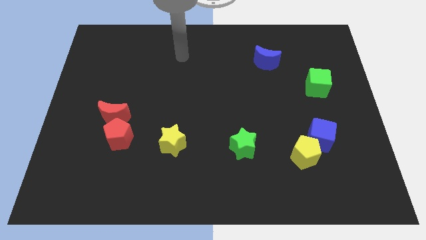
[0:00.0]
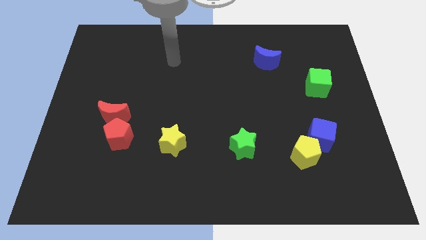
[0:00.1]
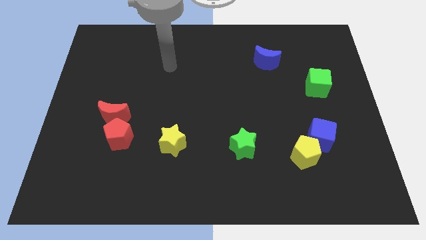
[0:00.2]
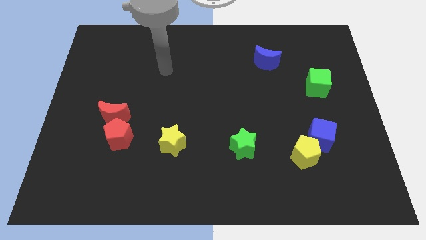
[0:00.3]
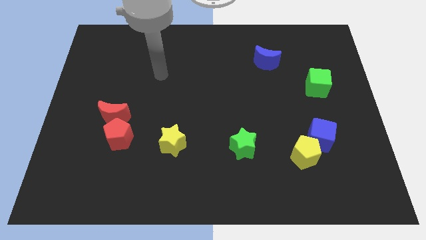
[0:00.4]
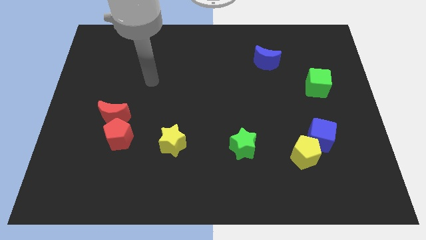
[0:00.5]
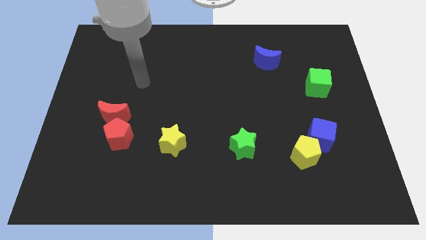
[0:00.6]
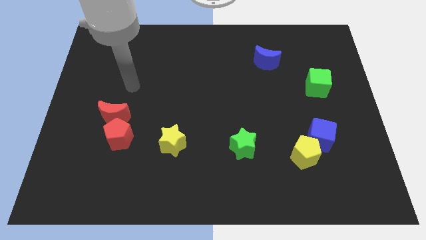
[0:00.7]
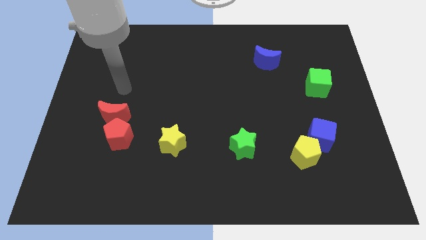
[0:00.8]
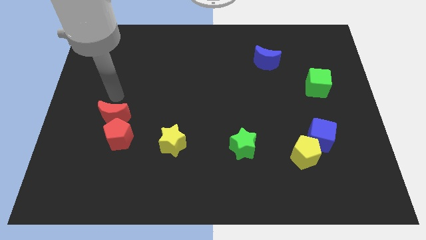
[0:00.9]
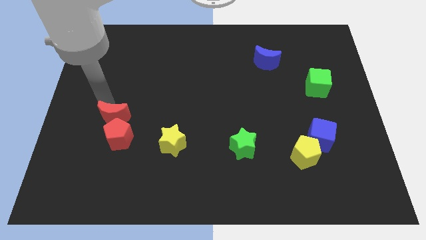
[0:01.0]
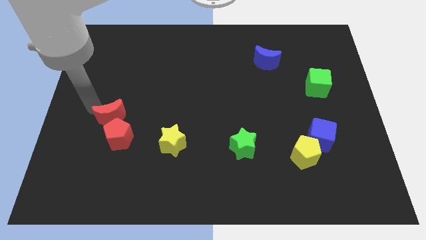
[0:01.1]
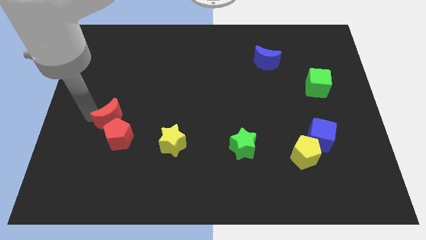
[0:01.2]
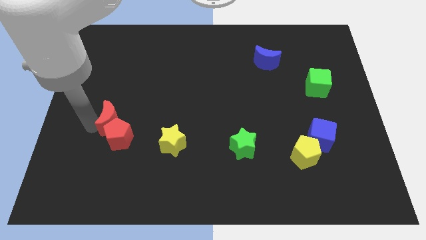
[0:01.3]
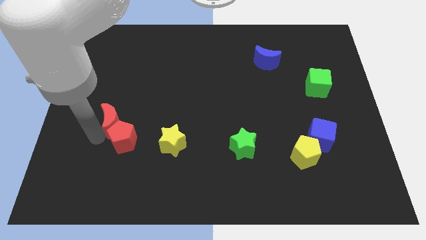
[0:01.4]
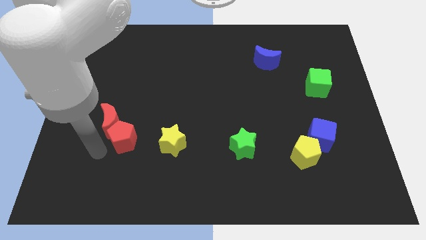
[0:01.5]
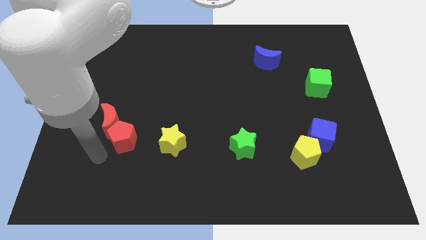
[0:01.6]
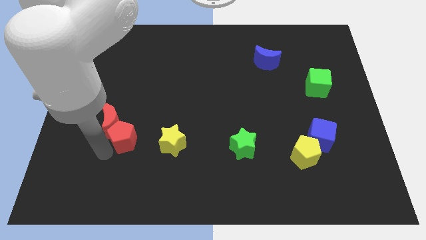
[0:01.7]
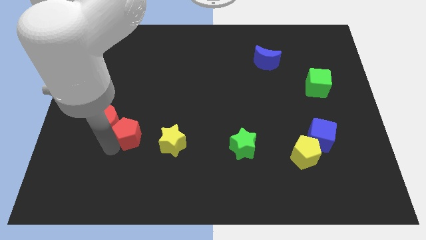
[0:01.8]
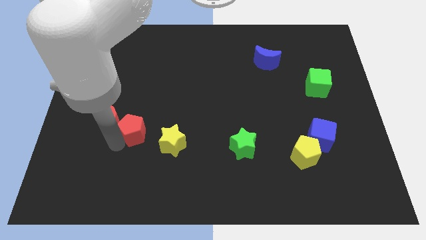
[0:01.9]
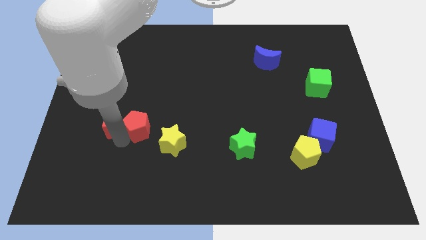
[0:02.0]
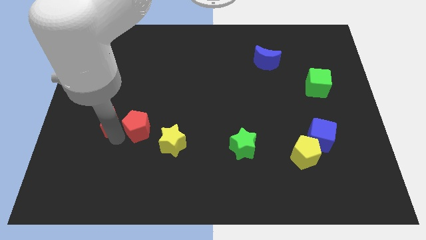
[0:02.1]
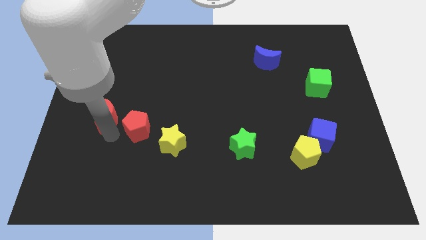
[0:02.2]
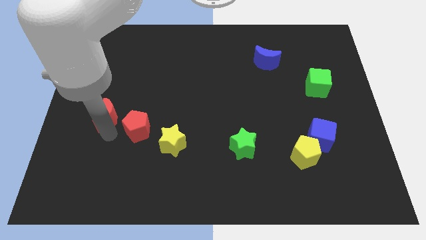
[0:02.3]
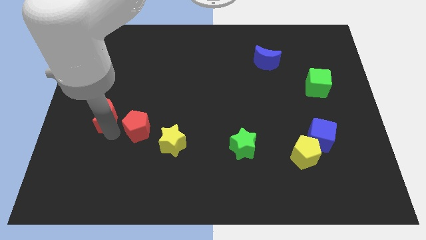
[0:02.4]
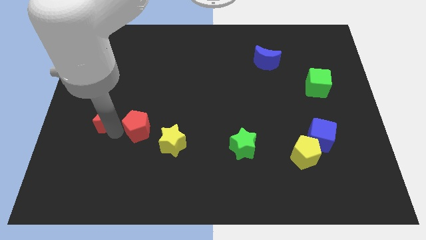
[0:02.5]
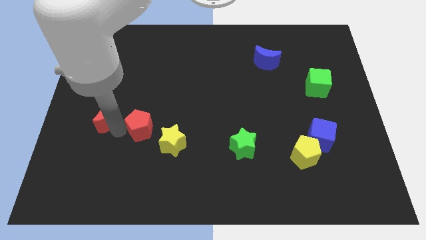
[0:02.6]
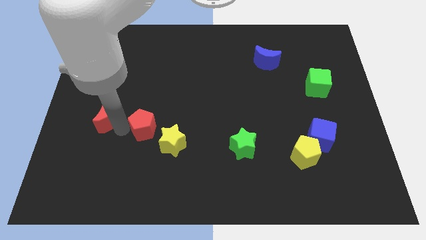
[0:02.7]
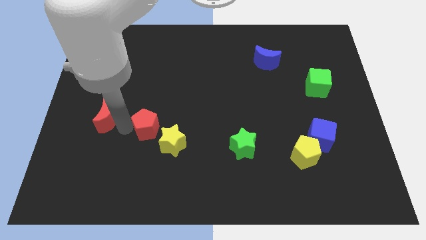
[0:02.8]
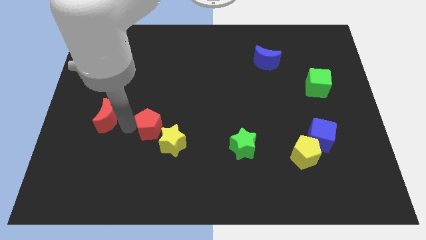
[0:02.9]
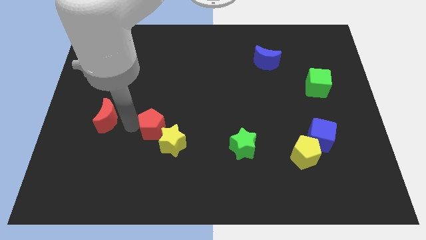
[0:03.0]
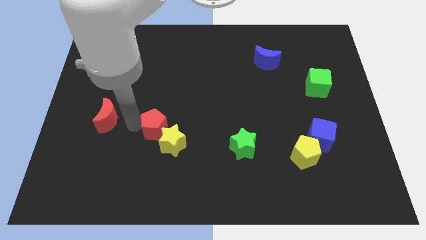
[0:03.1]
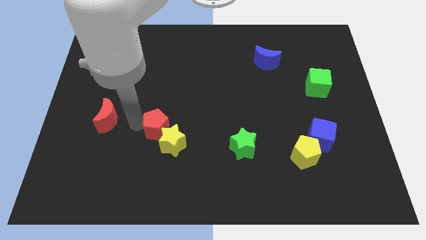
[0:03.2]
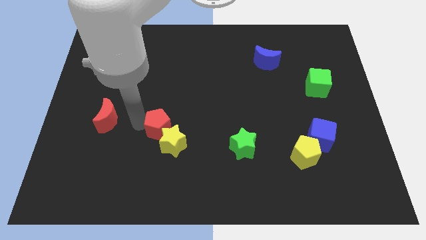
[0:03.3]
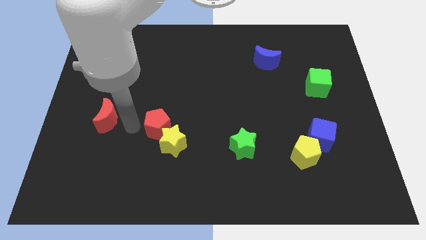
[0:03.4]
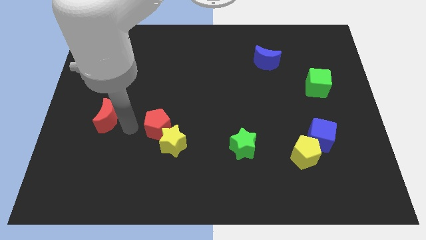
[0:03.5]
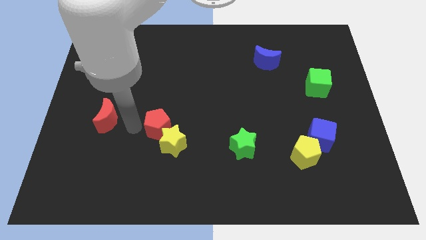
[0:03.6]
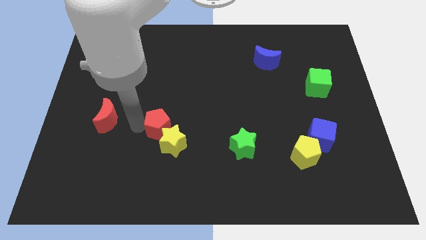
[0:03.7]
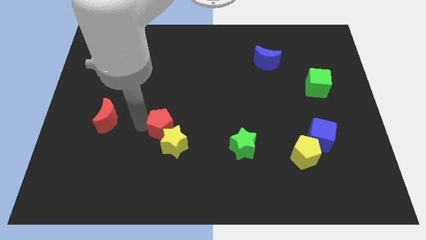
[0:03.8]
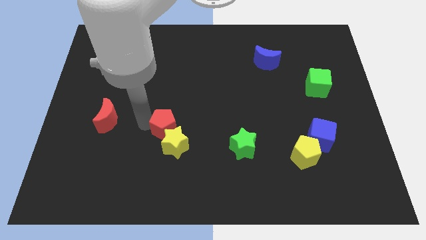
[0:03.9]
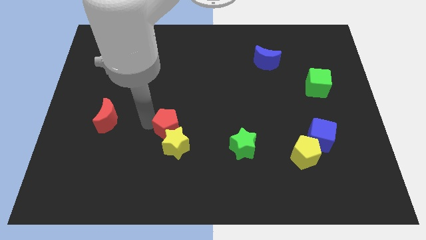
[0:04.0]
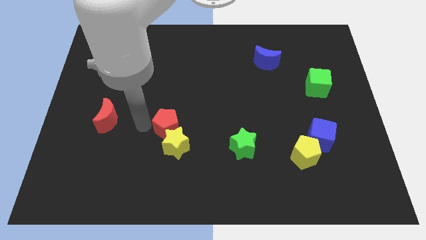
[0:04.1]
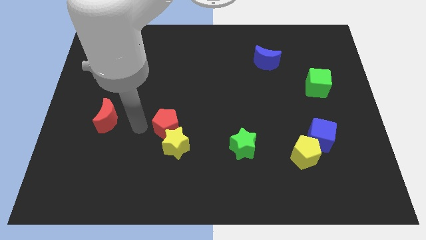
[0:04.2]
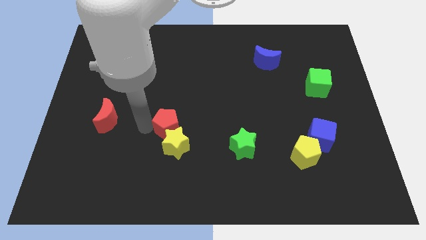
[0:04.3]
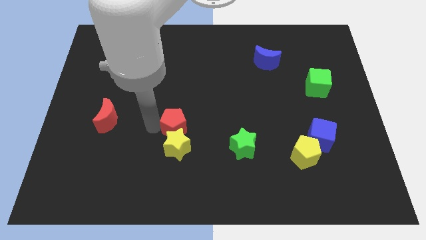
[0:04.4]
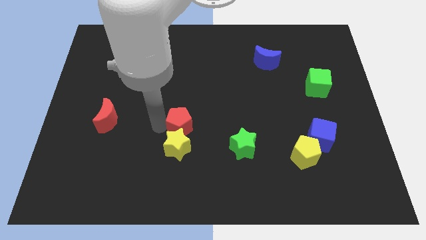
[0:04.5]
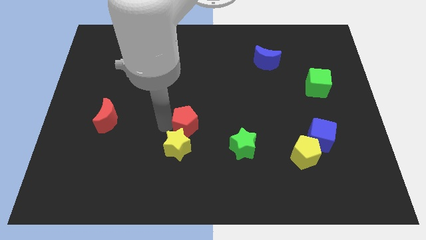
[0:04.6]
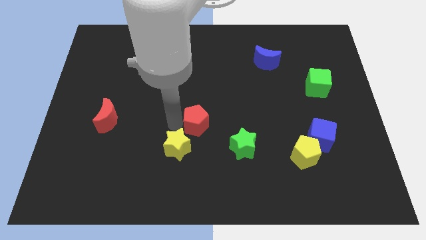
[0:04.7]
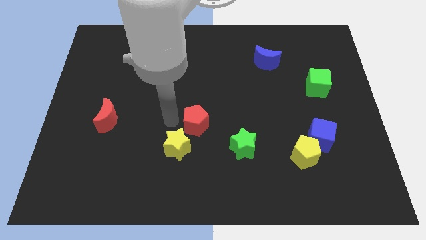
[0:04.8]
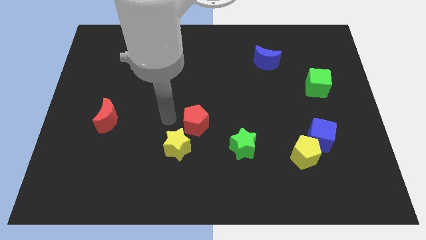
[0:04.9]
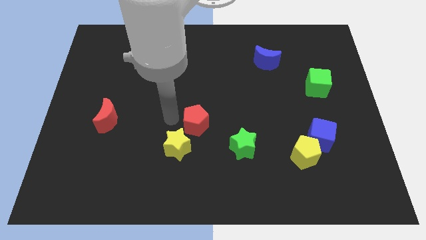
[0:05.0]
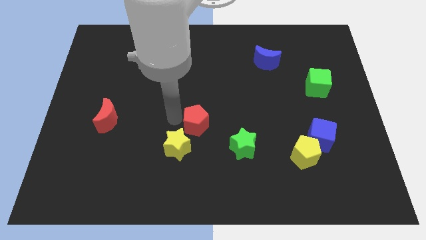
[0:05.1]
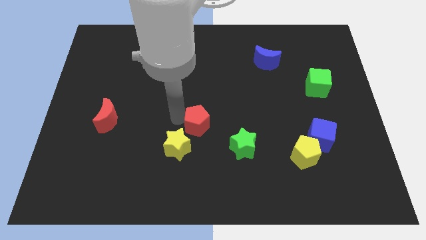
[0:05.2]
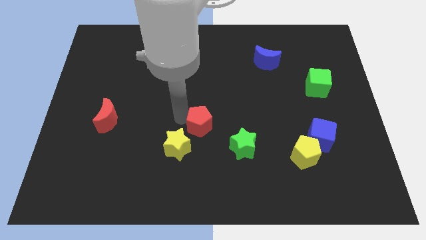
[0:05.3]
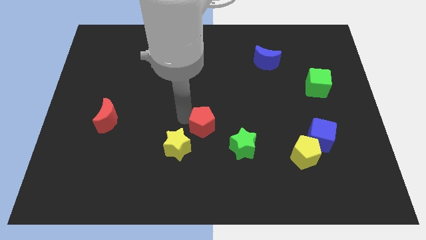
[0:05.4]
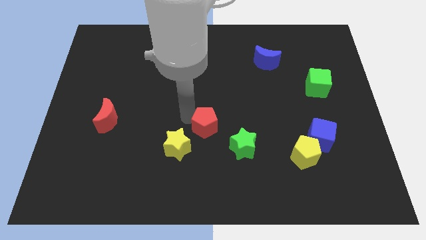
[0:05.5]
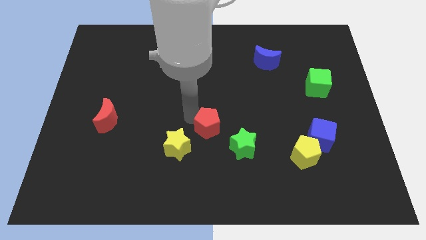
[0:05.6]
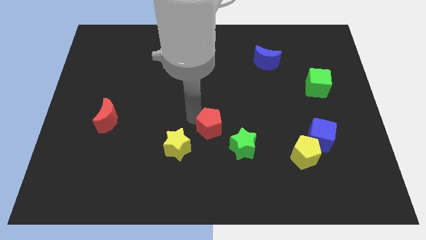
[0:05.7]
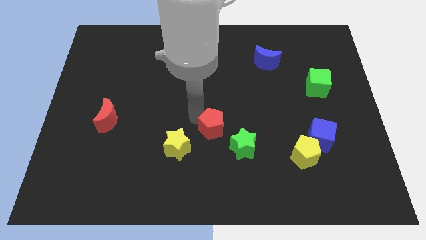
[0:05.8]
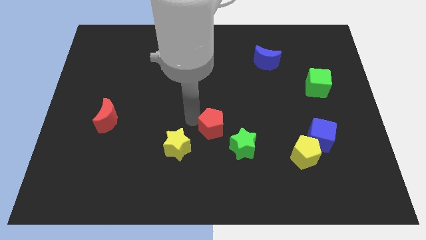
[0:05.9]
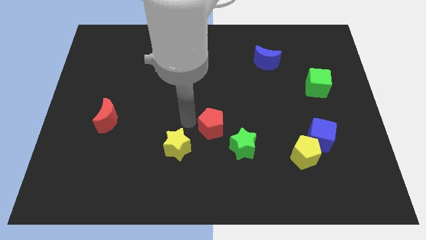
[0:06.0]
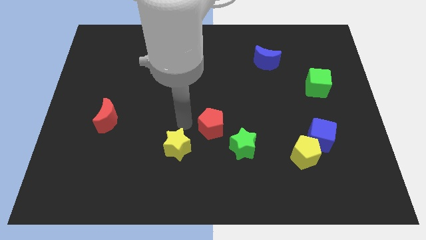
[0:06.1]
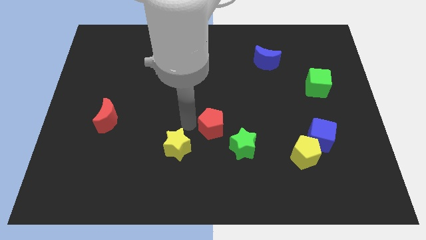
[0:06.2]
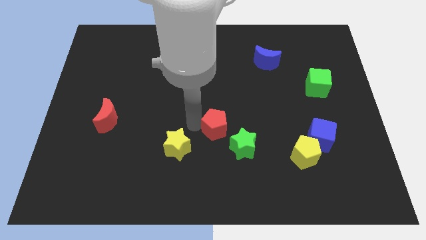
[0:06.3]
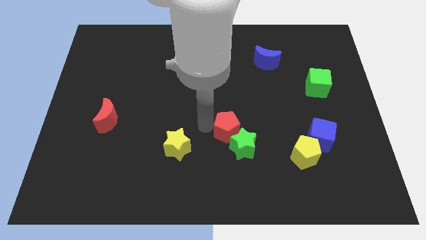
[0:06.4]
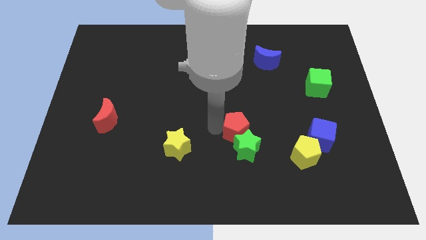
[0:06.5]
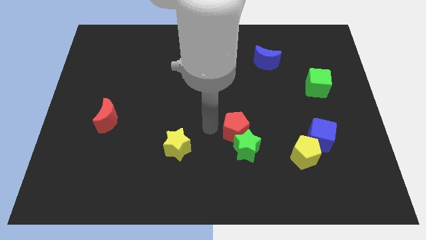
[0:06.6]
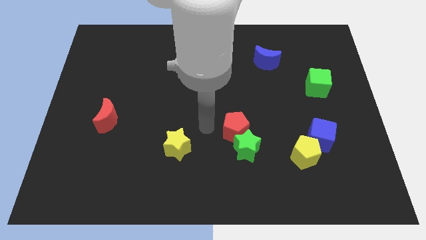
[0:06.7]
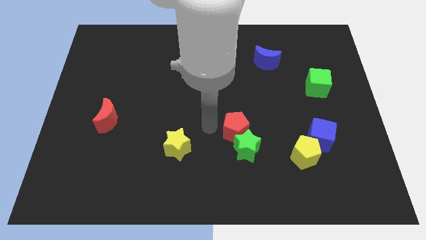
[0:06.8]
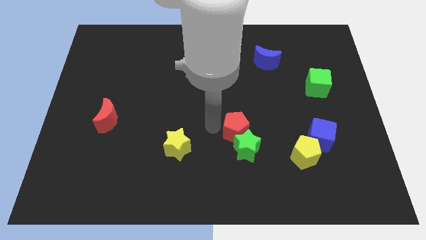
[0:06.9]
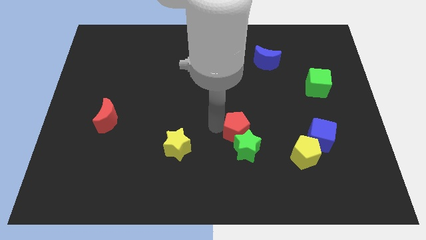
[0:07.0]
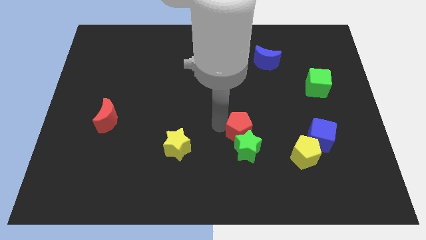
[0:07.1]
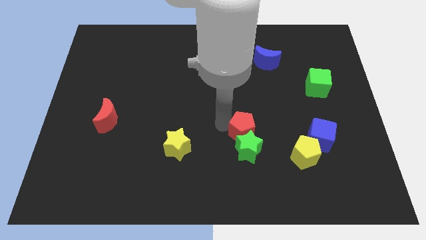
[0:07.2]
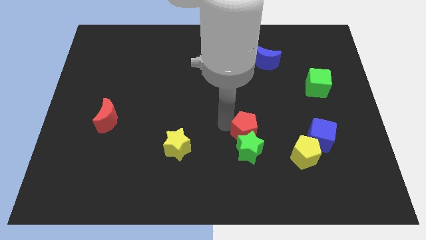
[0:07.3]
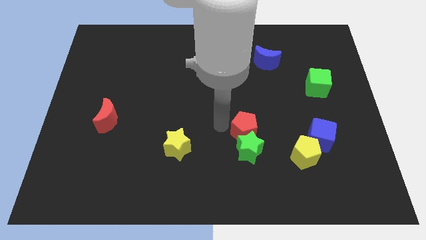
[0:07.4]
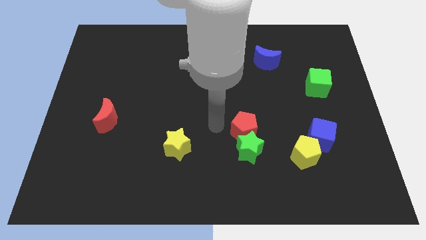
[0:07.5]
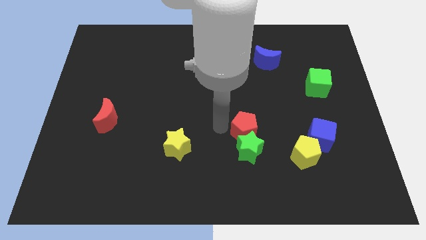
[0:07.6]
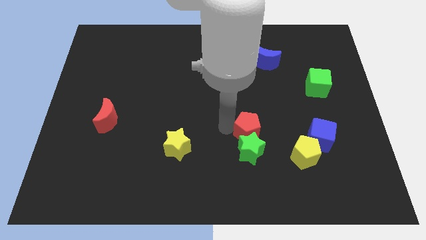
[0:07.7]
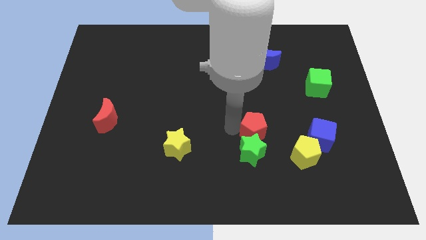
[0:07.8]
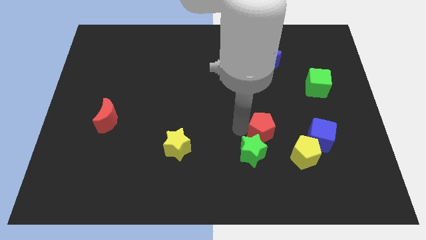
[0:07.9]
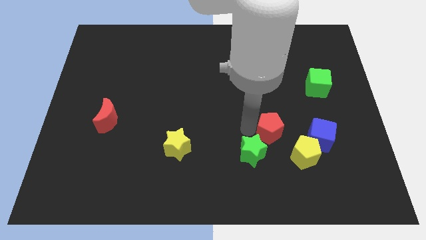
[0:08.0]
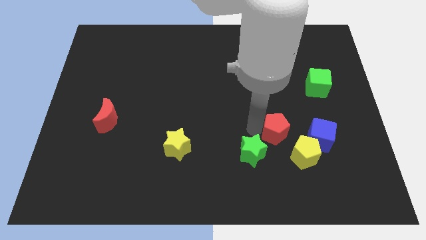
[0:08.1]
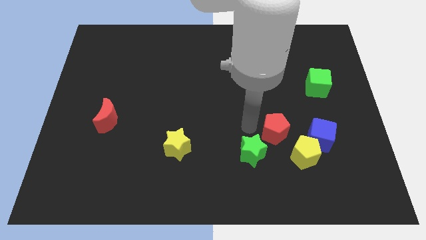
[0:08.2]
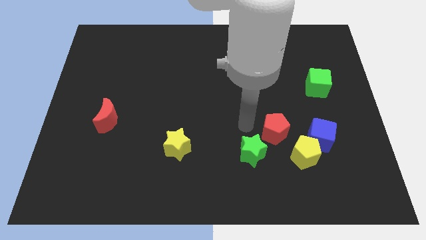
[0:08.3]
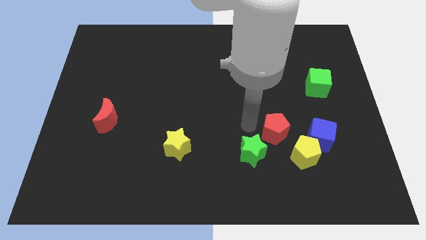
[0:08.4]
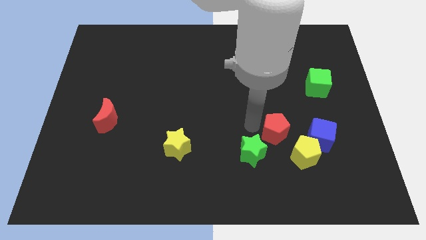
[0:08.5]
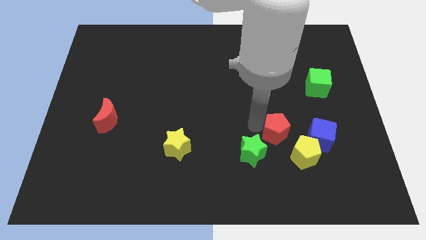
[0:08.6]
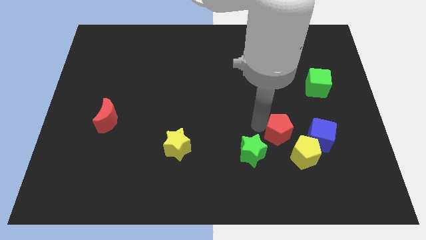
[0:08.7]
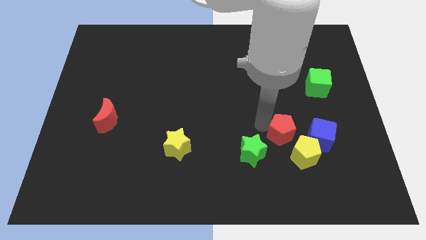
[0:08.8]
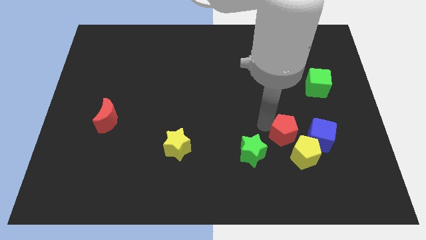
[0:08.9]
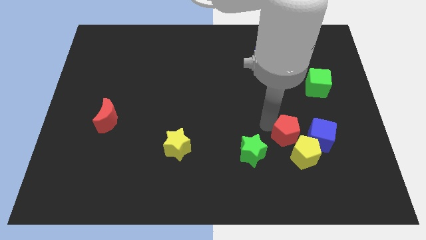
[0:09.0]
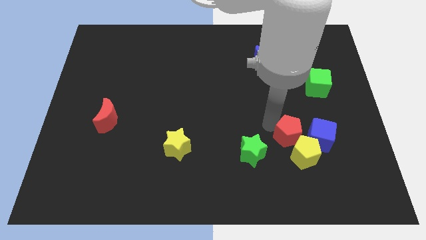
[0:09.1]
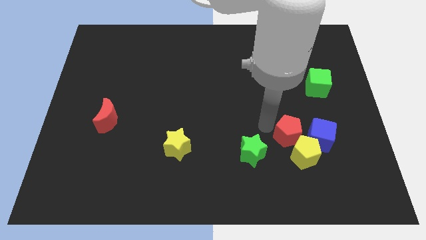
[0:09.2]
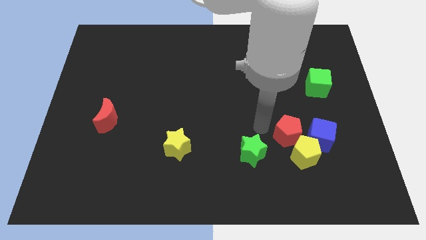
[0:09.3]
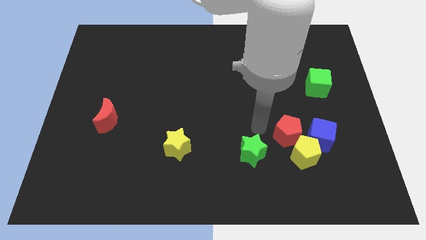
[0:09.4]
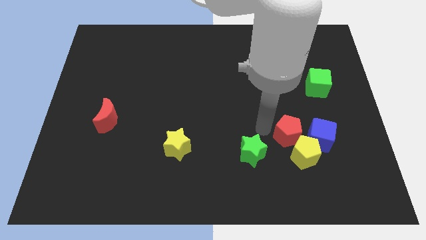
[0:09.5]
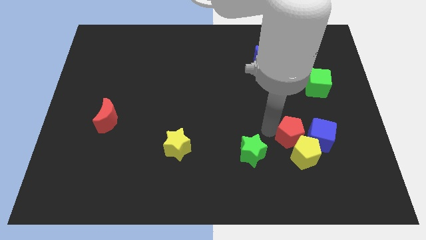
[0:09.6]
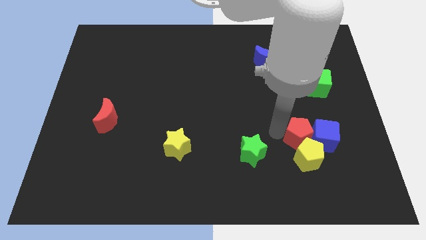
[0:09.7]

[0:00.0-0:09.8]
put the red pentagon next to the blue cube
